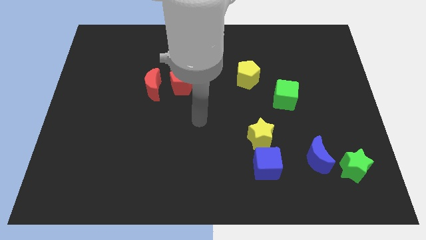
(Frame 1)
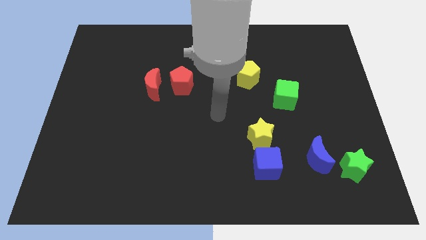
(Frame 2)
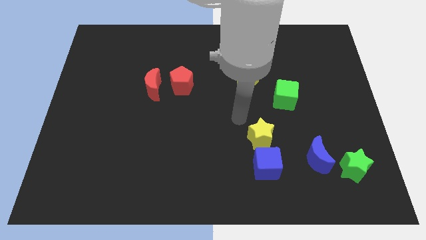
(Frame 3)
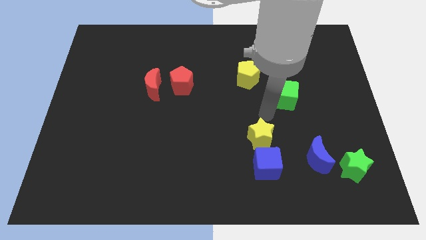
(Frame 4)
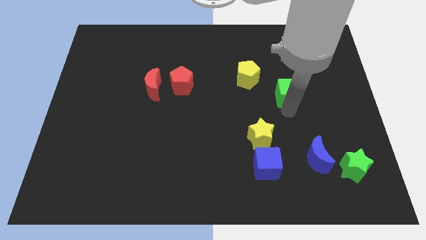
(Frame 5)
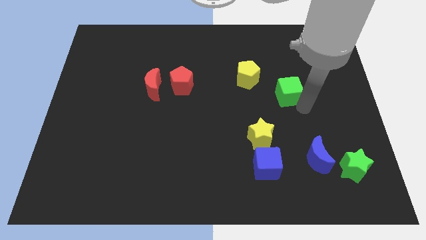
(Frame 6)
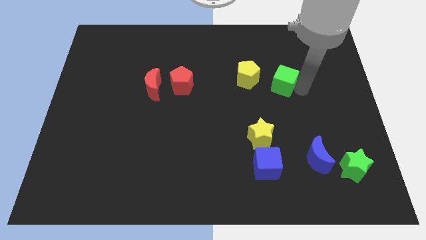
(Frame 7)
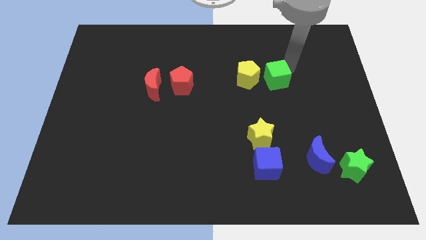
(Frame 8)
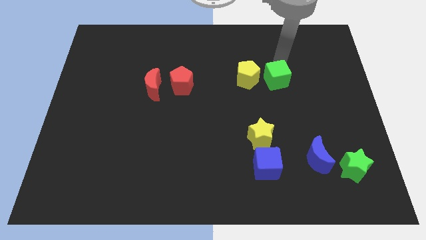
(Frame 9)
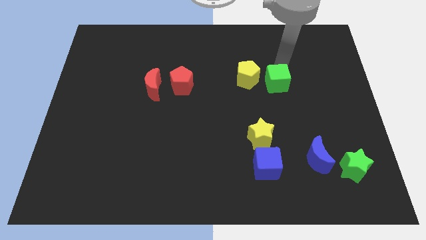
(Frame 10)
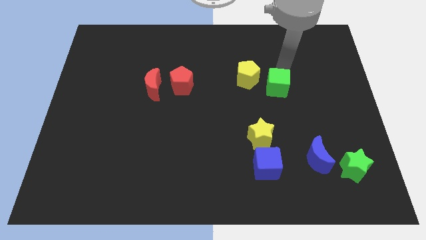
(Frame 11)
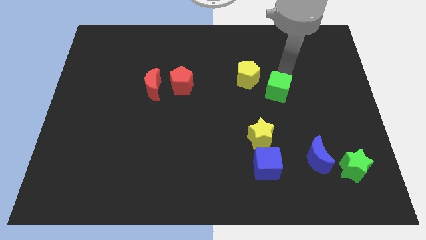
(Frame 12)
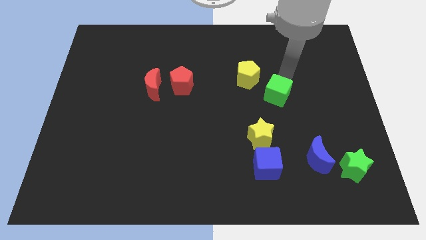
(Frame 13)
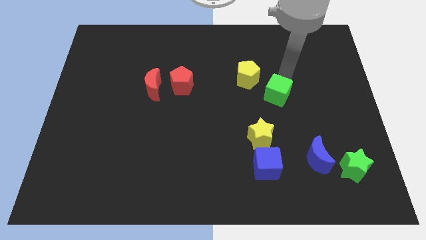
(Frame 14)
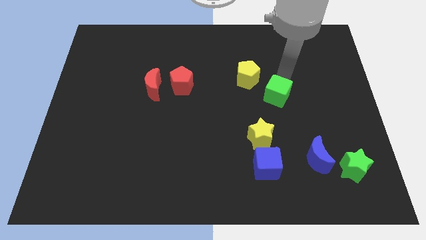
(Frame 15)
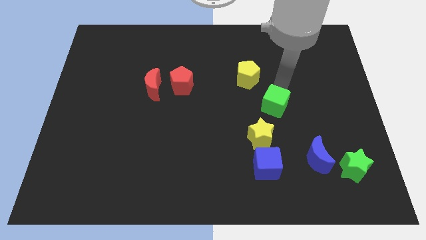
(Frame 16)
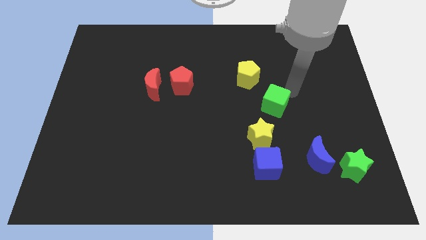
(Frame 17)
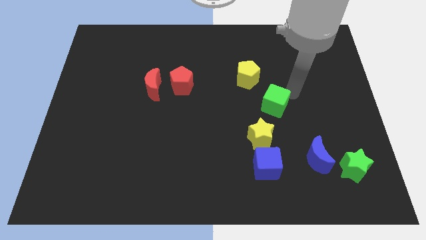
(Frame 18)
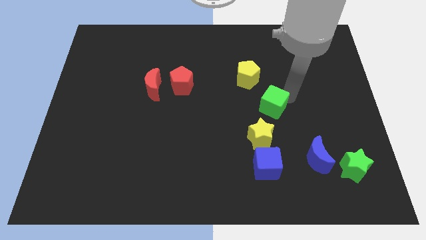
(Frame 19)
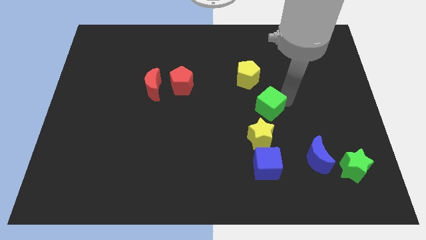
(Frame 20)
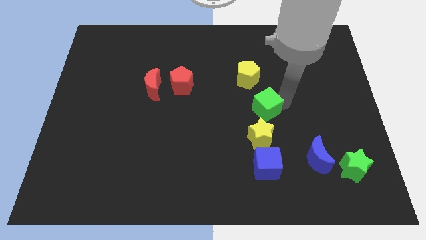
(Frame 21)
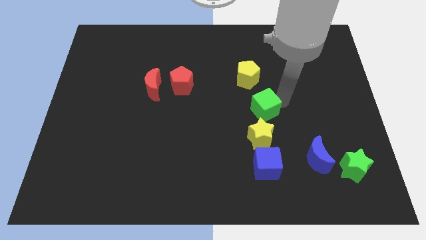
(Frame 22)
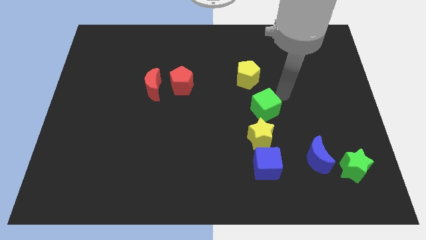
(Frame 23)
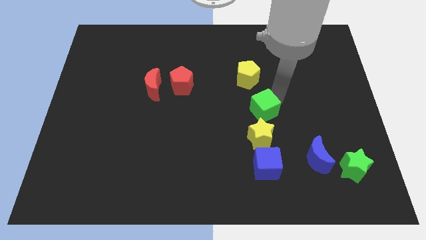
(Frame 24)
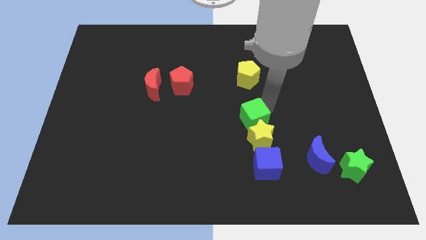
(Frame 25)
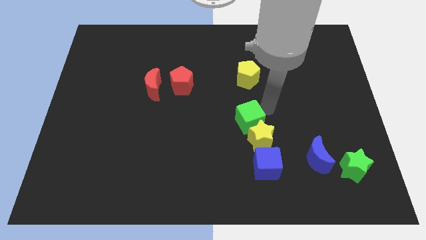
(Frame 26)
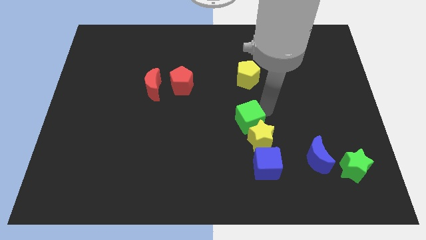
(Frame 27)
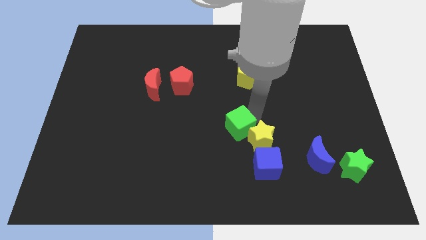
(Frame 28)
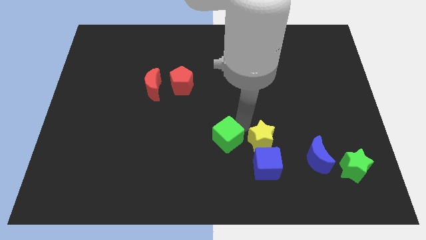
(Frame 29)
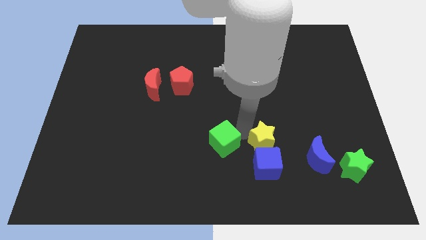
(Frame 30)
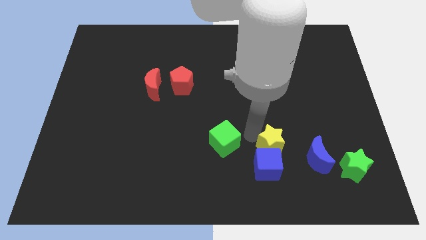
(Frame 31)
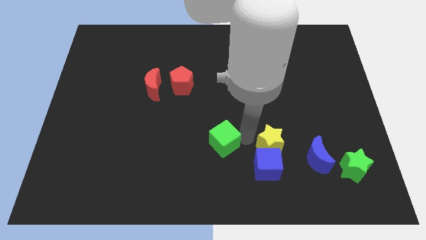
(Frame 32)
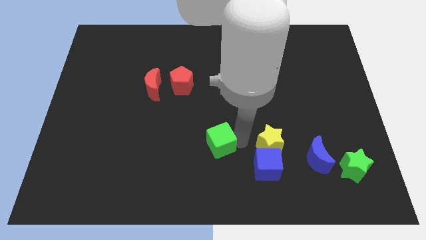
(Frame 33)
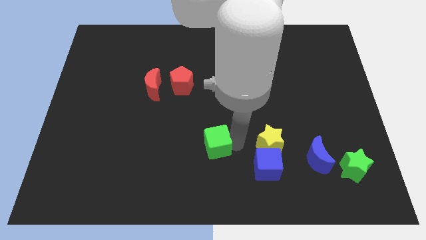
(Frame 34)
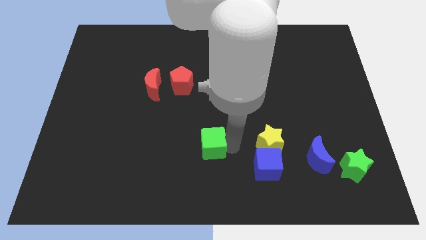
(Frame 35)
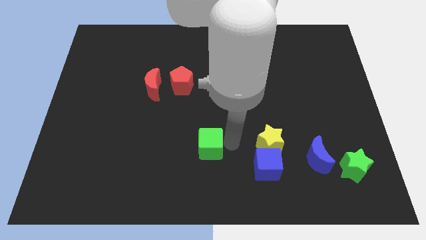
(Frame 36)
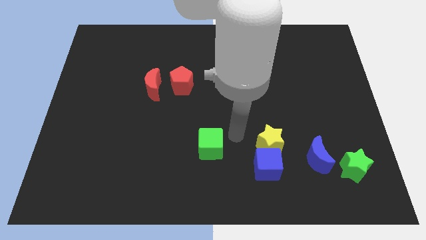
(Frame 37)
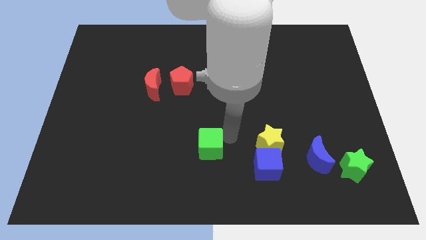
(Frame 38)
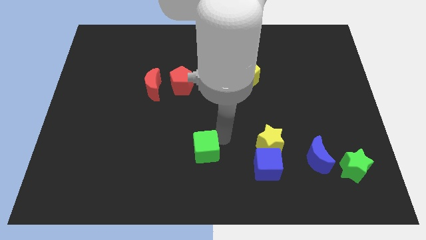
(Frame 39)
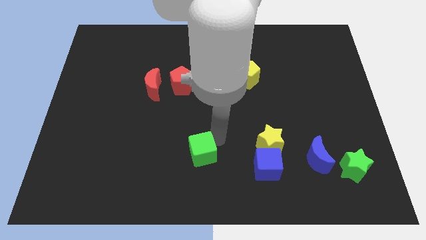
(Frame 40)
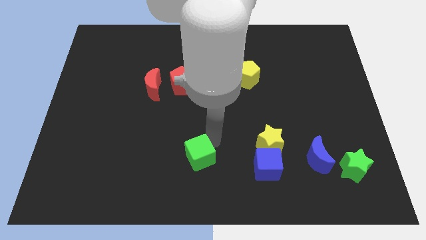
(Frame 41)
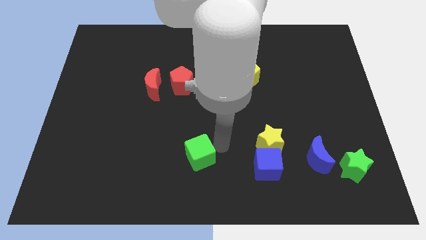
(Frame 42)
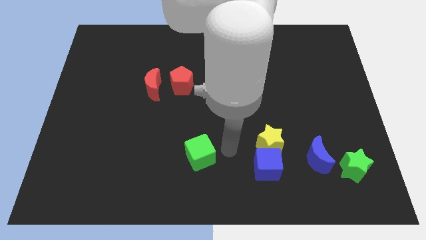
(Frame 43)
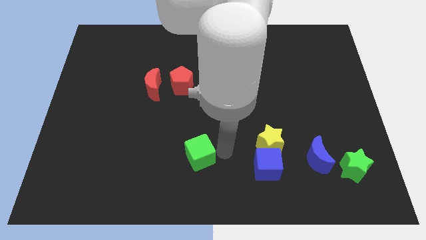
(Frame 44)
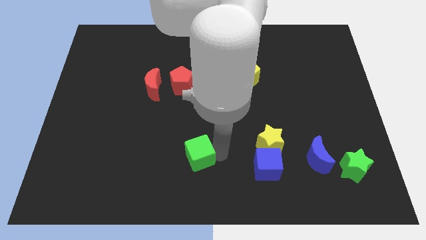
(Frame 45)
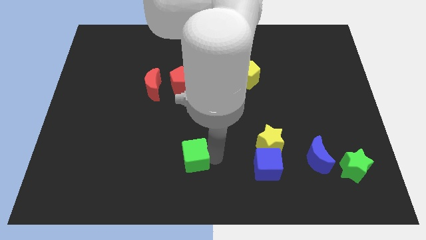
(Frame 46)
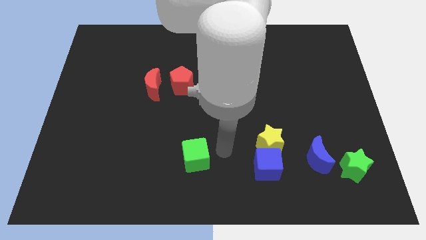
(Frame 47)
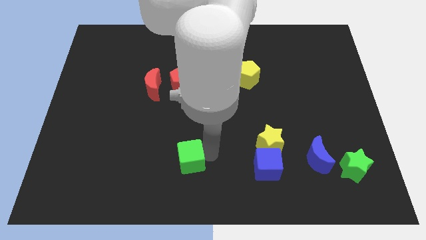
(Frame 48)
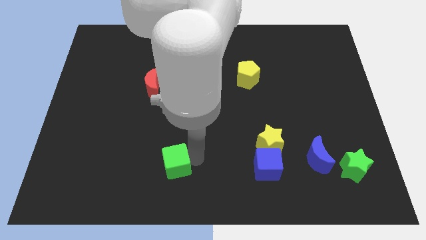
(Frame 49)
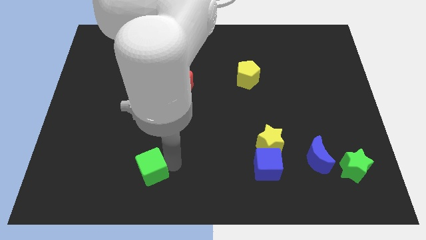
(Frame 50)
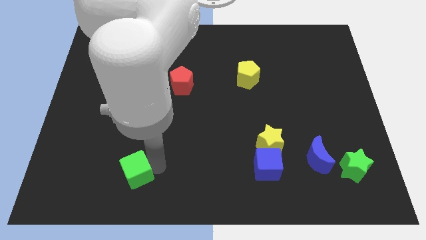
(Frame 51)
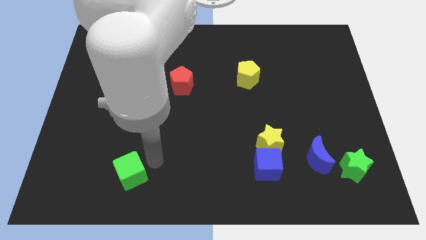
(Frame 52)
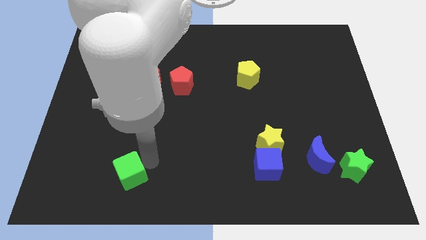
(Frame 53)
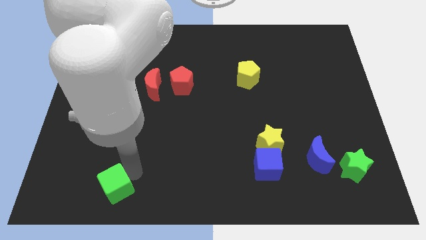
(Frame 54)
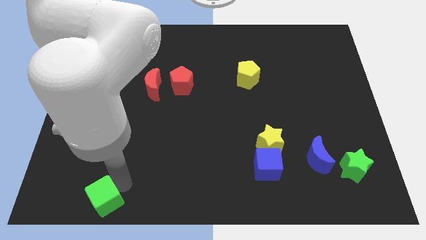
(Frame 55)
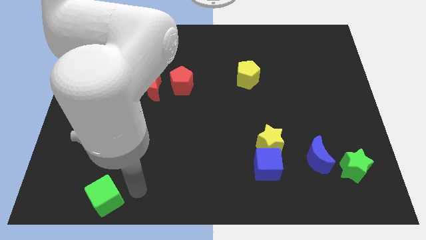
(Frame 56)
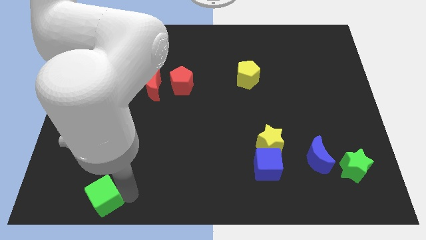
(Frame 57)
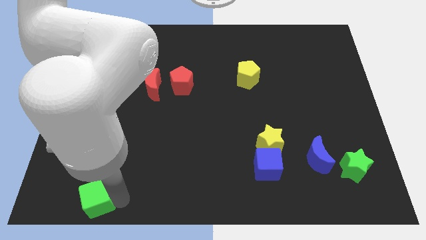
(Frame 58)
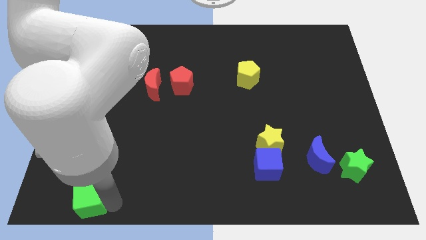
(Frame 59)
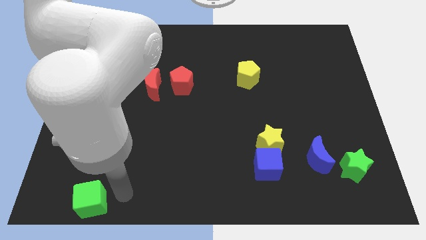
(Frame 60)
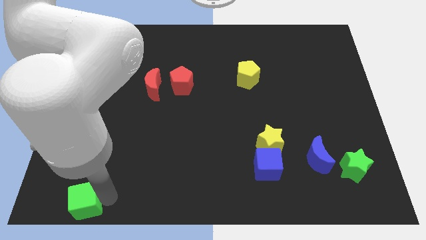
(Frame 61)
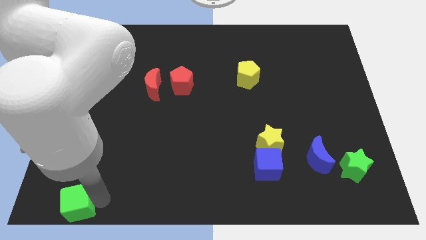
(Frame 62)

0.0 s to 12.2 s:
push the green cube to the bottom left

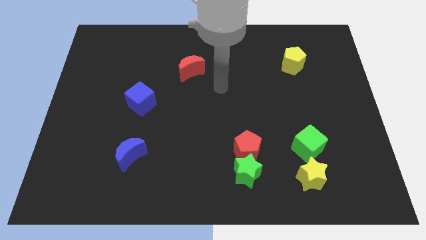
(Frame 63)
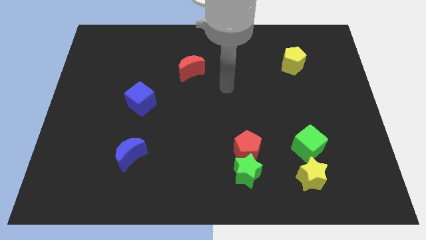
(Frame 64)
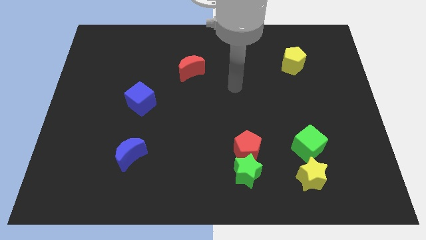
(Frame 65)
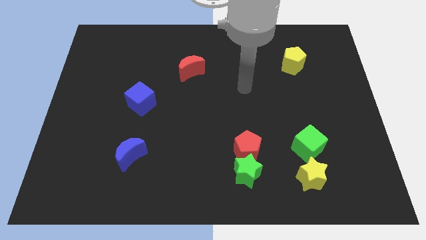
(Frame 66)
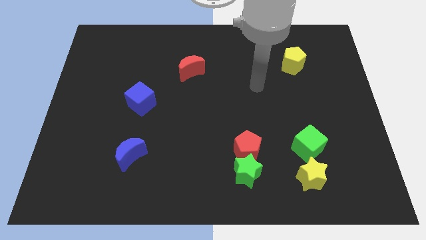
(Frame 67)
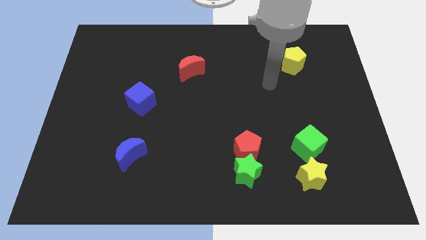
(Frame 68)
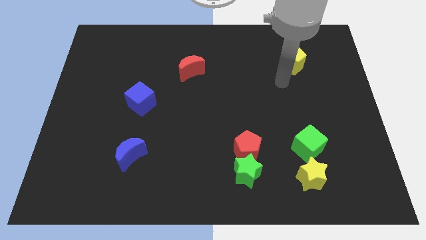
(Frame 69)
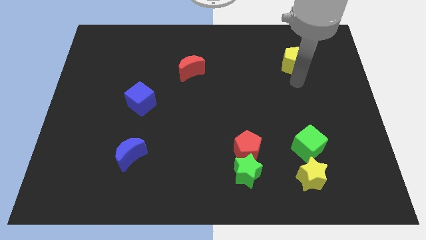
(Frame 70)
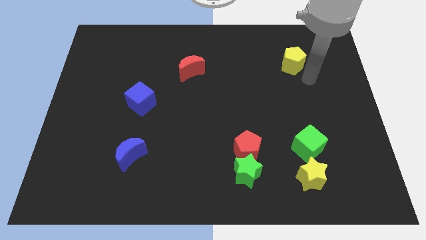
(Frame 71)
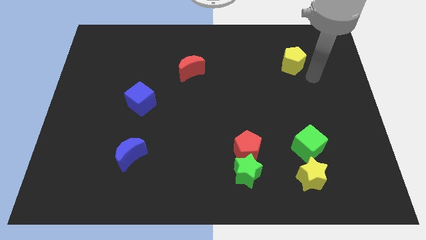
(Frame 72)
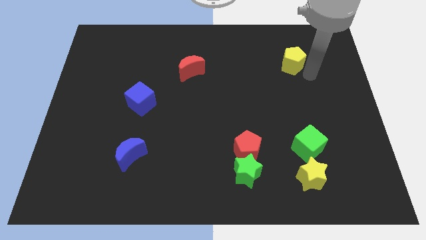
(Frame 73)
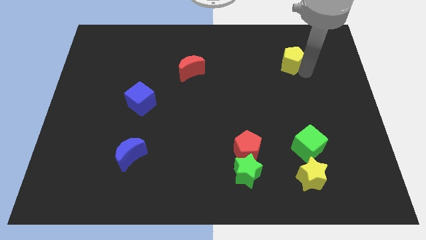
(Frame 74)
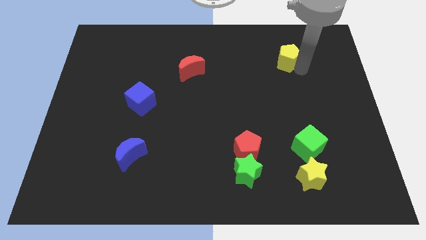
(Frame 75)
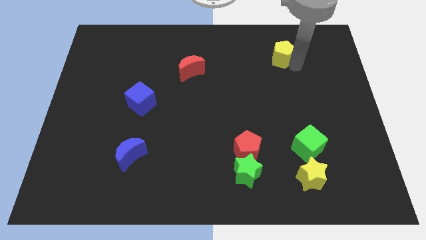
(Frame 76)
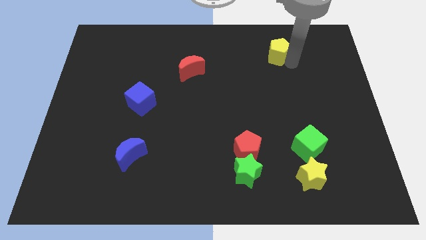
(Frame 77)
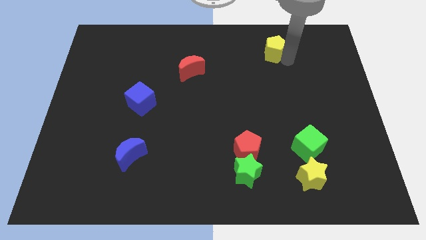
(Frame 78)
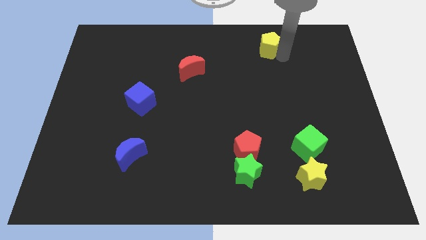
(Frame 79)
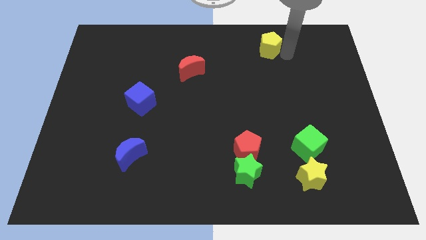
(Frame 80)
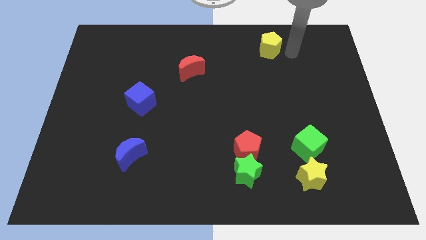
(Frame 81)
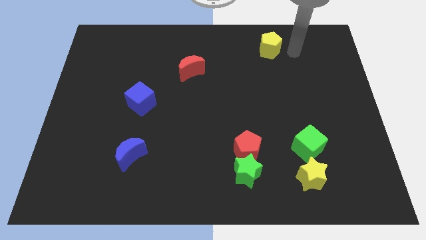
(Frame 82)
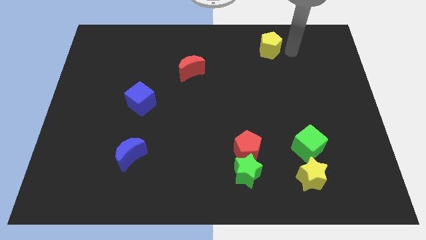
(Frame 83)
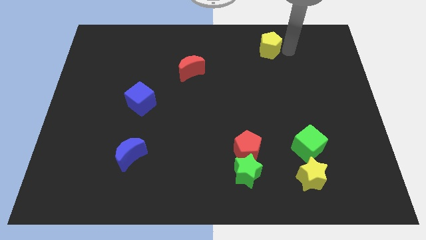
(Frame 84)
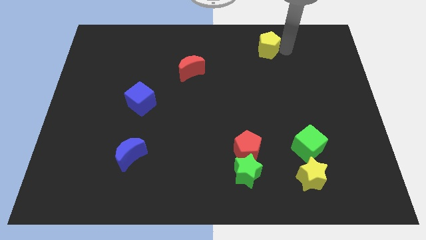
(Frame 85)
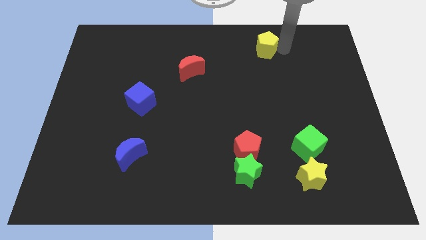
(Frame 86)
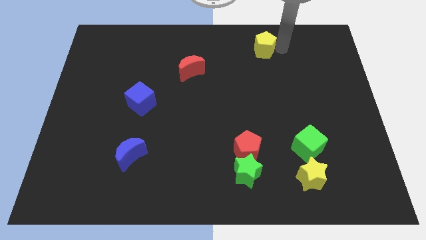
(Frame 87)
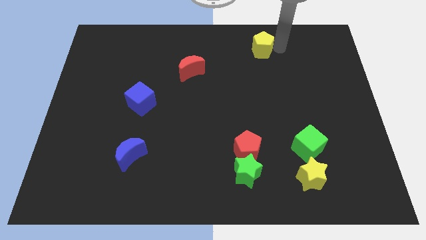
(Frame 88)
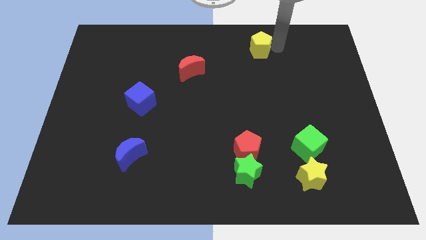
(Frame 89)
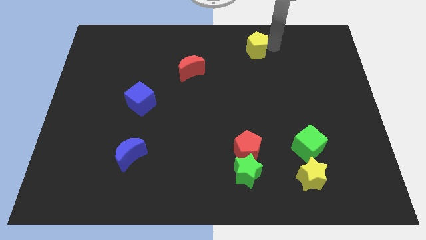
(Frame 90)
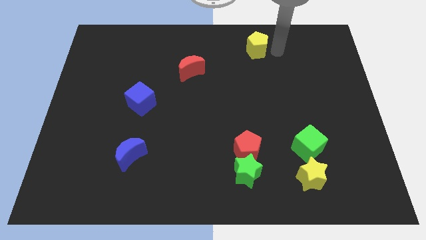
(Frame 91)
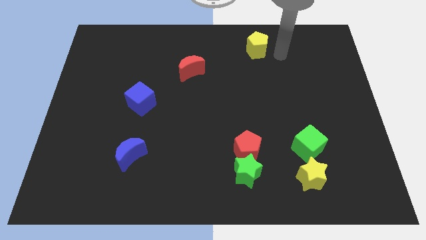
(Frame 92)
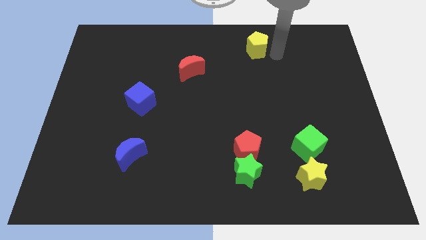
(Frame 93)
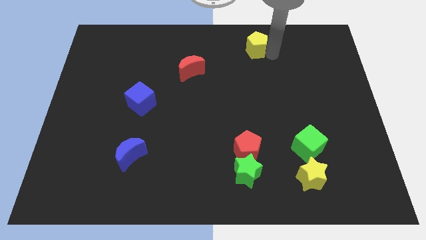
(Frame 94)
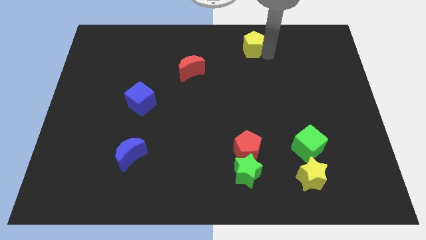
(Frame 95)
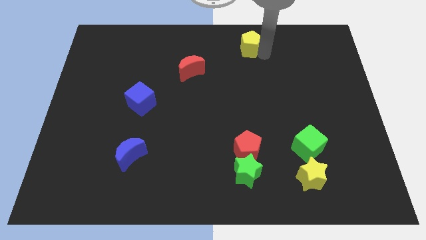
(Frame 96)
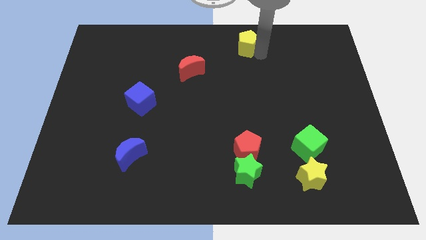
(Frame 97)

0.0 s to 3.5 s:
slide the yellow pentagon to the towards your base
